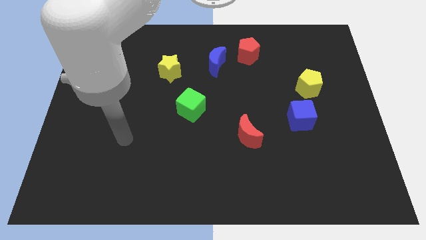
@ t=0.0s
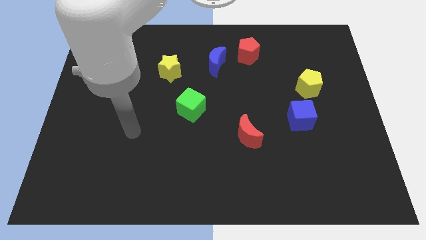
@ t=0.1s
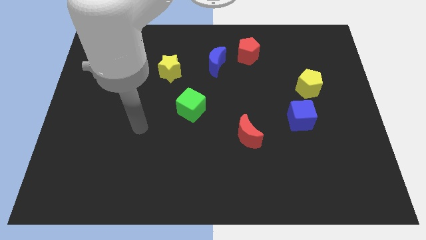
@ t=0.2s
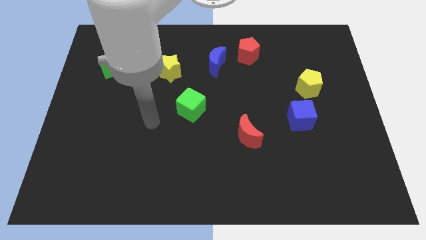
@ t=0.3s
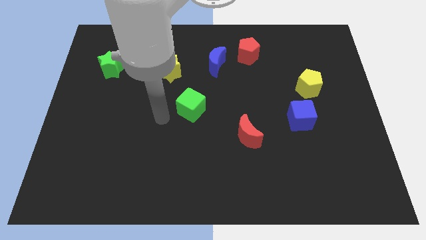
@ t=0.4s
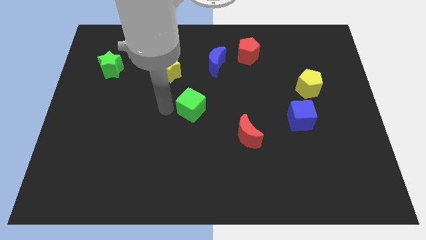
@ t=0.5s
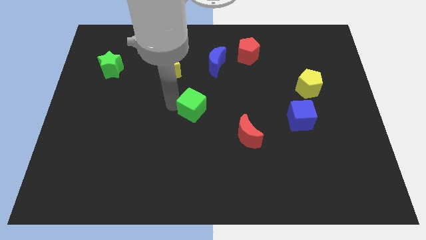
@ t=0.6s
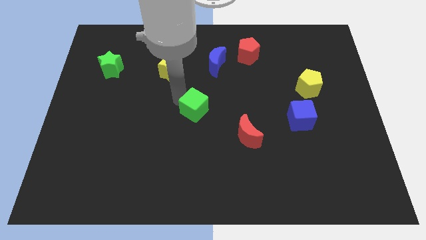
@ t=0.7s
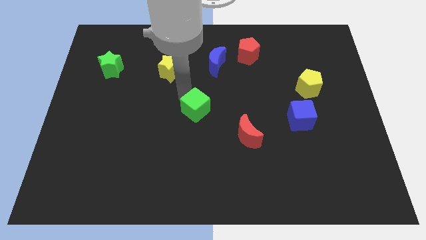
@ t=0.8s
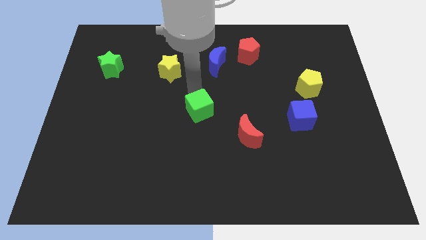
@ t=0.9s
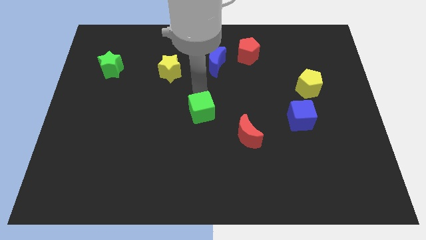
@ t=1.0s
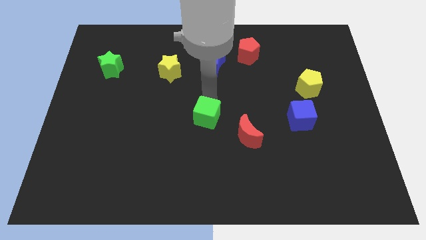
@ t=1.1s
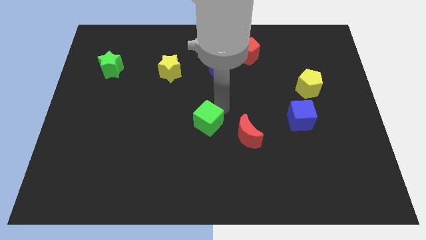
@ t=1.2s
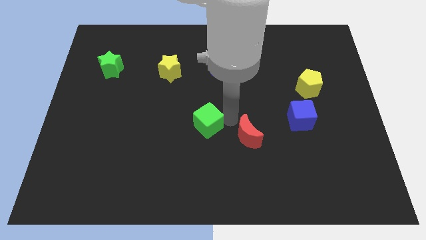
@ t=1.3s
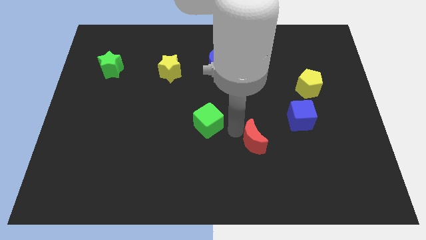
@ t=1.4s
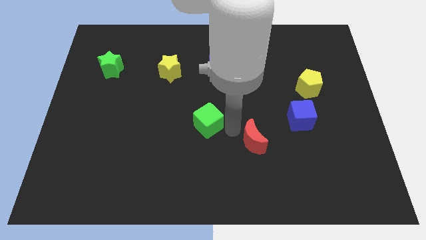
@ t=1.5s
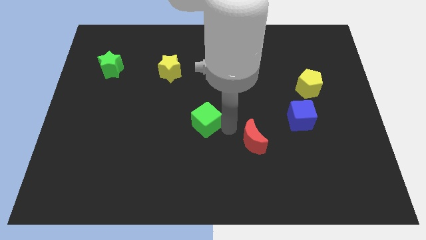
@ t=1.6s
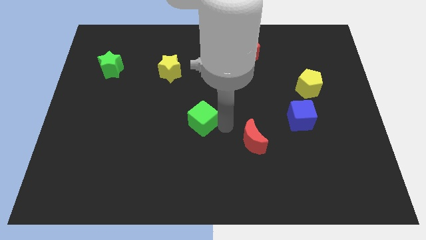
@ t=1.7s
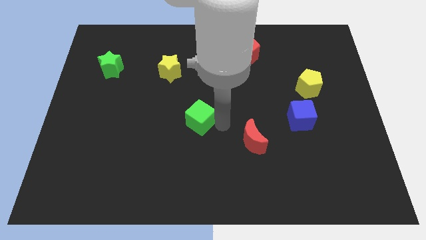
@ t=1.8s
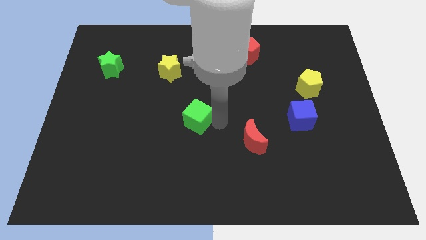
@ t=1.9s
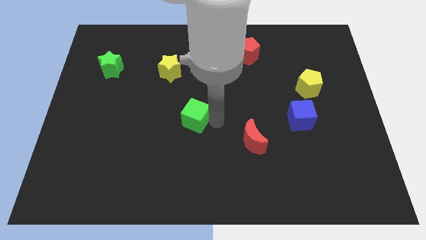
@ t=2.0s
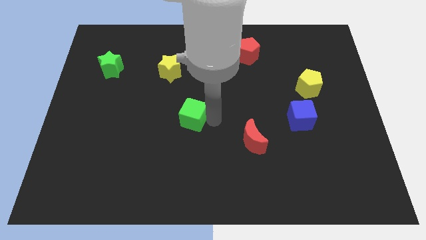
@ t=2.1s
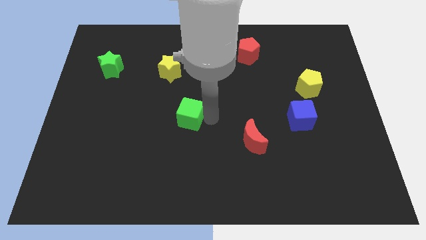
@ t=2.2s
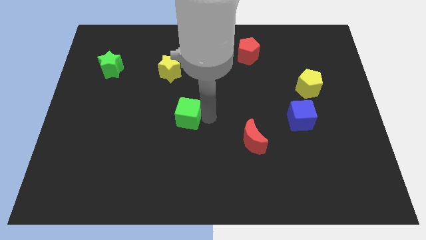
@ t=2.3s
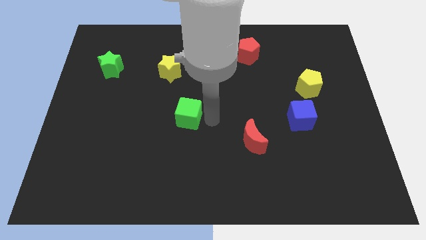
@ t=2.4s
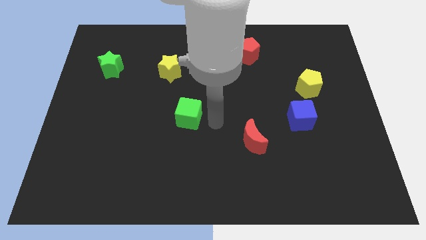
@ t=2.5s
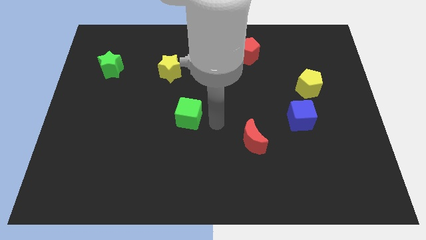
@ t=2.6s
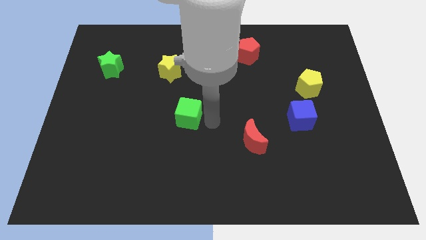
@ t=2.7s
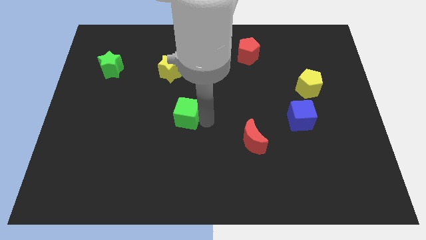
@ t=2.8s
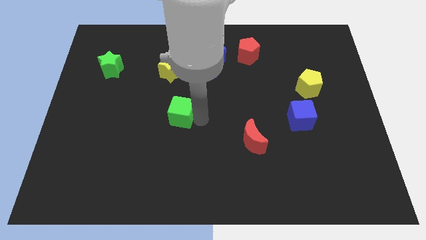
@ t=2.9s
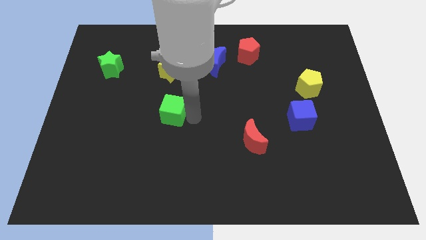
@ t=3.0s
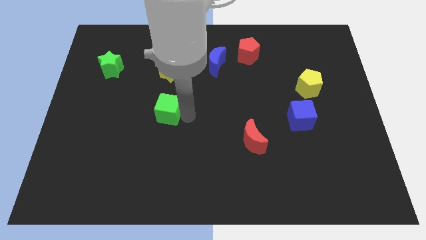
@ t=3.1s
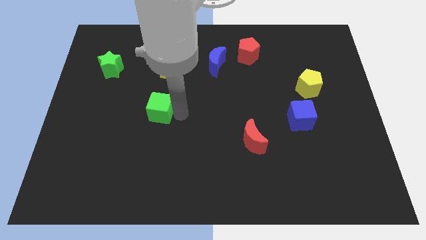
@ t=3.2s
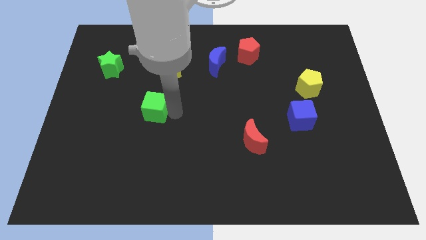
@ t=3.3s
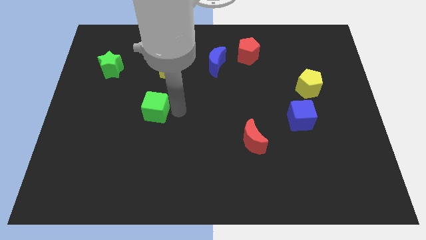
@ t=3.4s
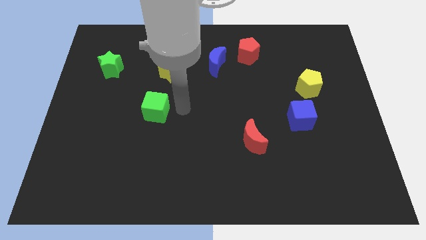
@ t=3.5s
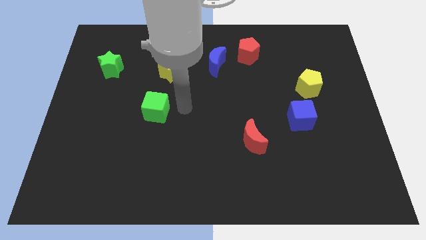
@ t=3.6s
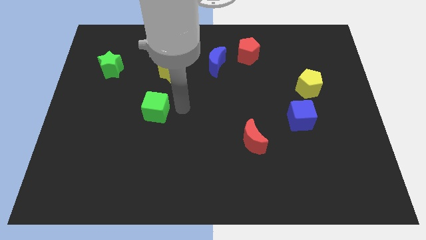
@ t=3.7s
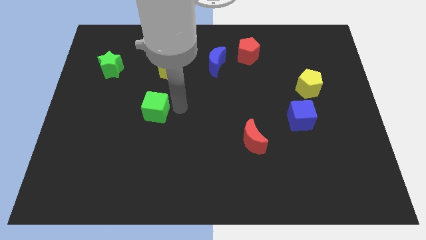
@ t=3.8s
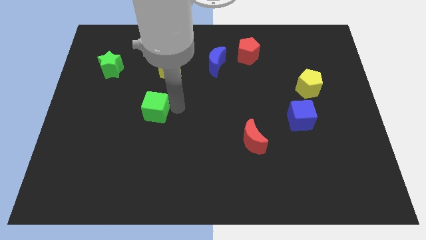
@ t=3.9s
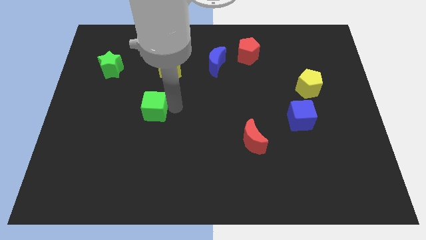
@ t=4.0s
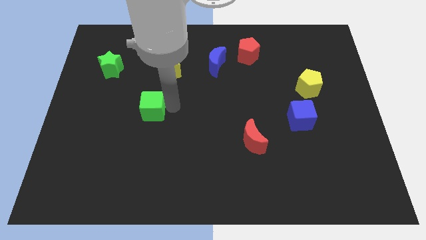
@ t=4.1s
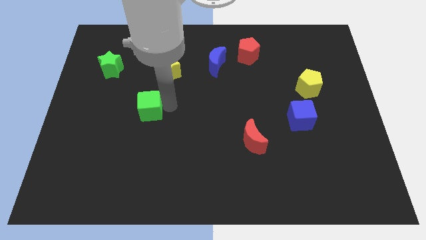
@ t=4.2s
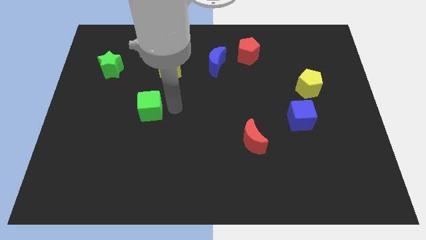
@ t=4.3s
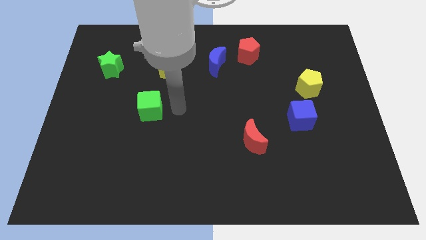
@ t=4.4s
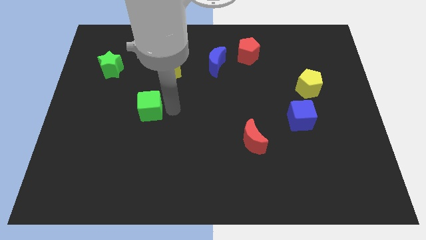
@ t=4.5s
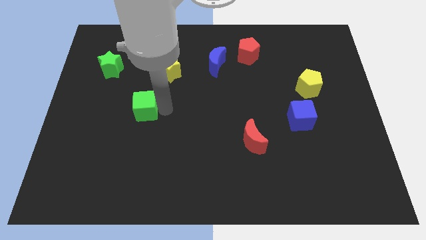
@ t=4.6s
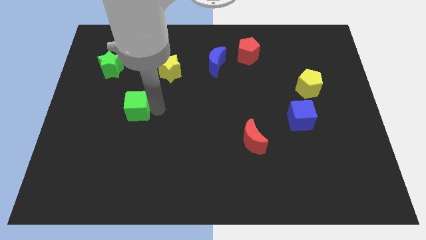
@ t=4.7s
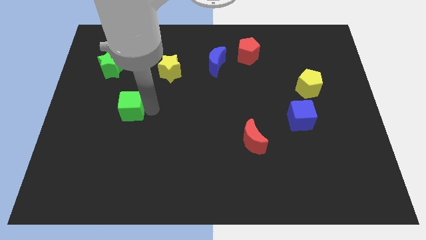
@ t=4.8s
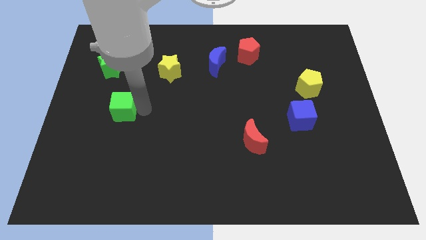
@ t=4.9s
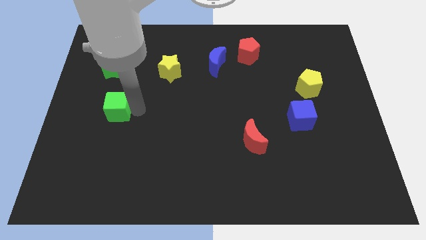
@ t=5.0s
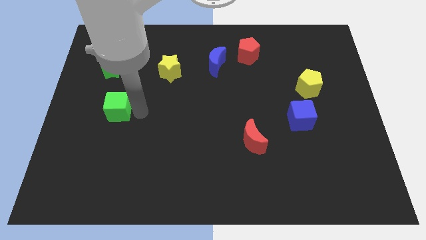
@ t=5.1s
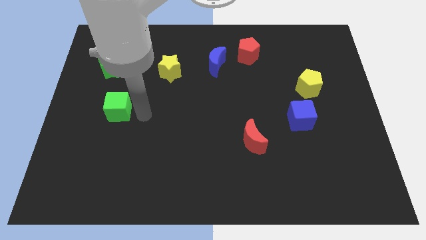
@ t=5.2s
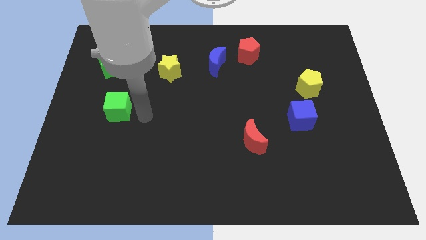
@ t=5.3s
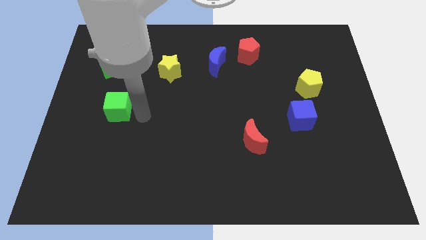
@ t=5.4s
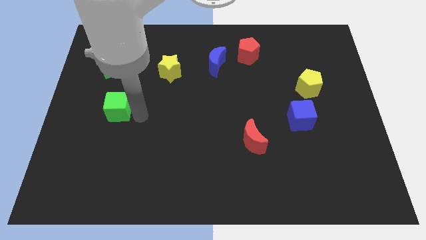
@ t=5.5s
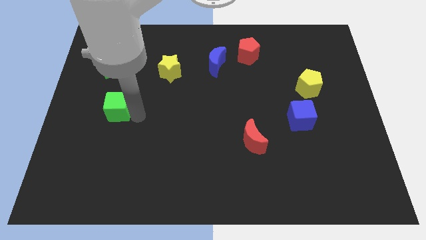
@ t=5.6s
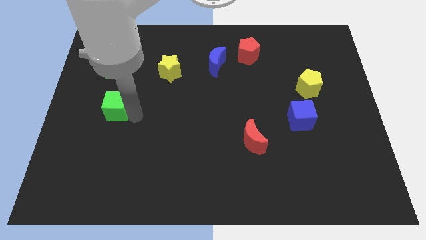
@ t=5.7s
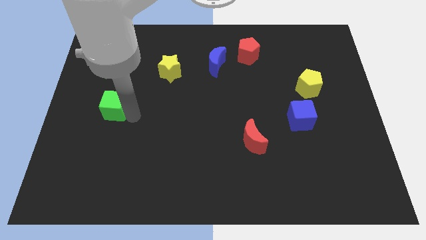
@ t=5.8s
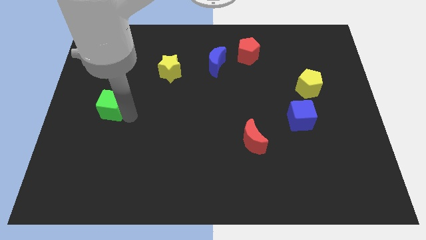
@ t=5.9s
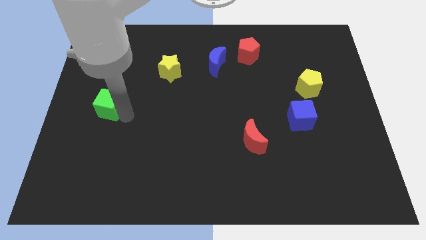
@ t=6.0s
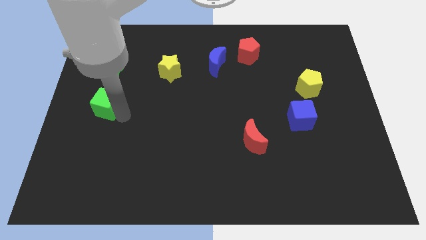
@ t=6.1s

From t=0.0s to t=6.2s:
put the green cube to the left side

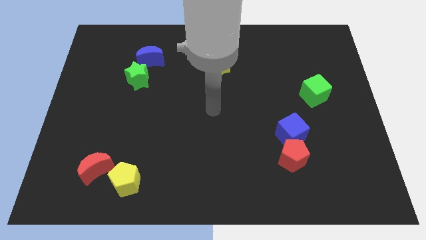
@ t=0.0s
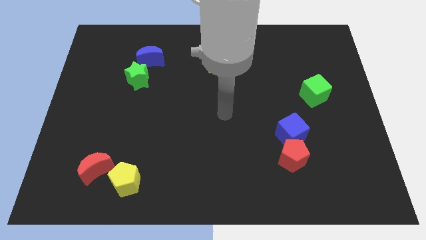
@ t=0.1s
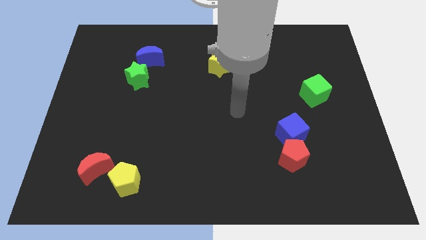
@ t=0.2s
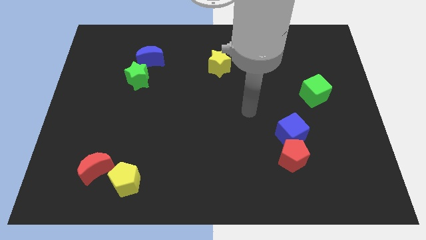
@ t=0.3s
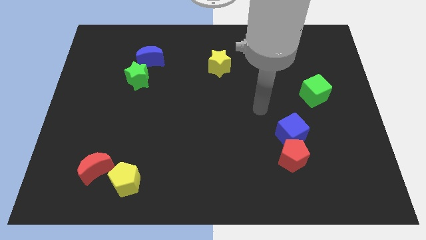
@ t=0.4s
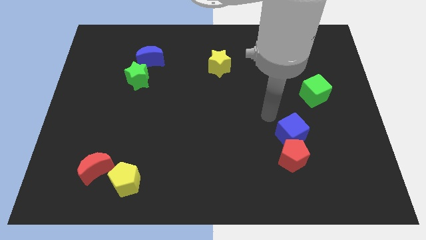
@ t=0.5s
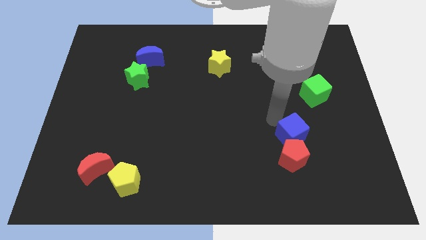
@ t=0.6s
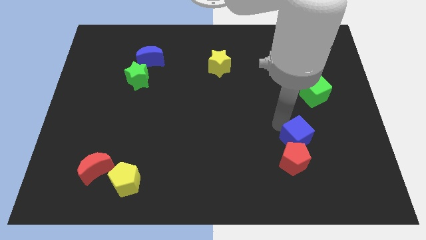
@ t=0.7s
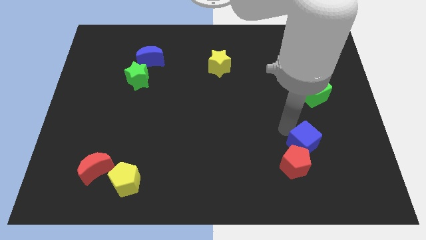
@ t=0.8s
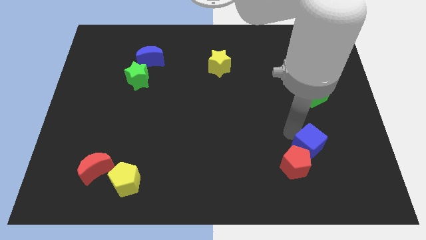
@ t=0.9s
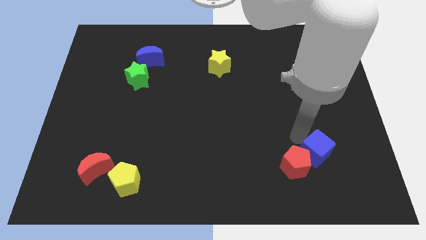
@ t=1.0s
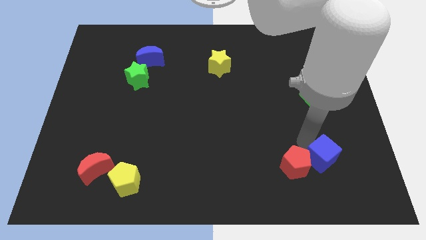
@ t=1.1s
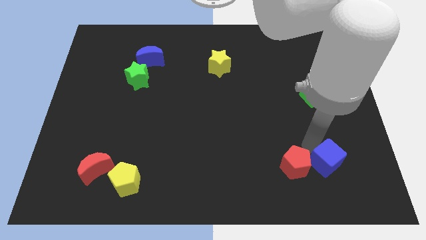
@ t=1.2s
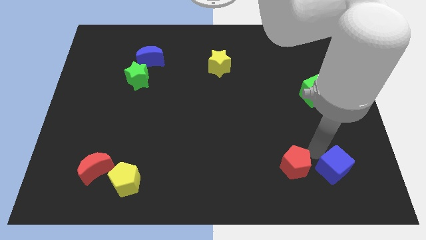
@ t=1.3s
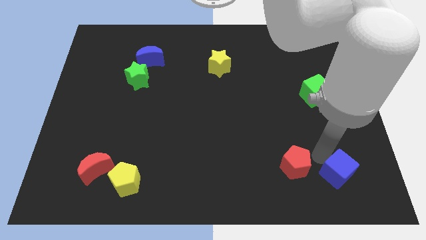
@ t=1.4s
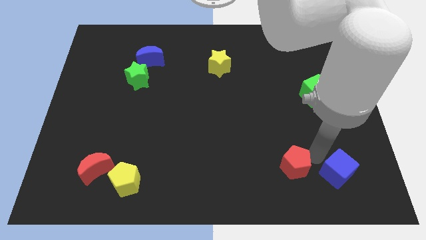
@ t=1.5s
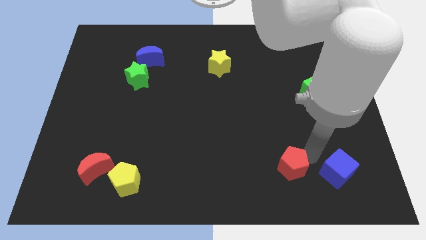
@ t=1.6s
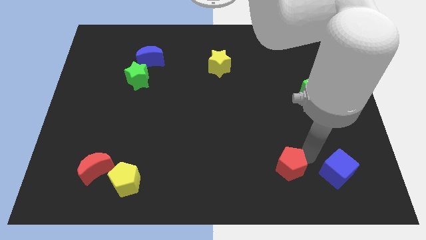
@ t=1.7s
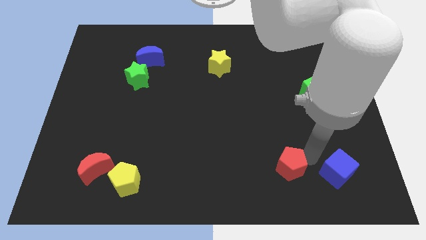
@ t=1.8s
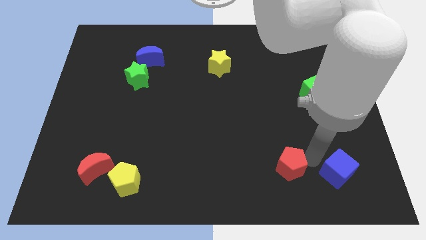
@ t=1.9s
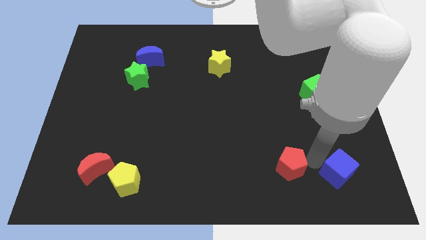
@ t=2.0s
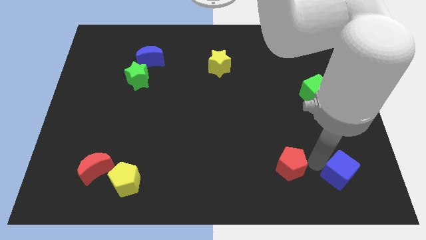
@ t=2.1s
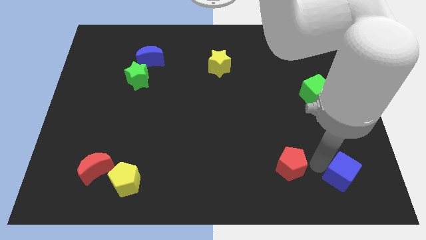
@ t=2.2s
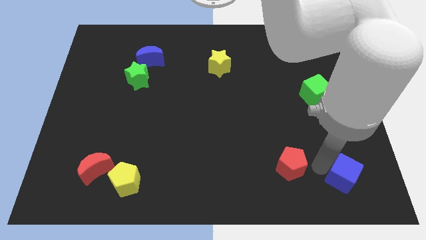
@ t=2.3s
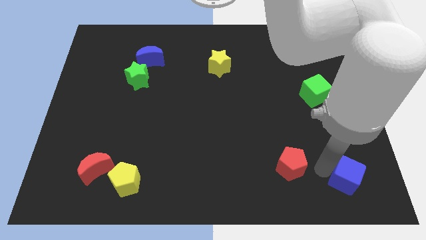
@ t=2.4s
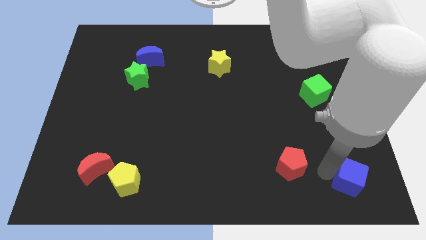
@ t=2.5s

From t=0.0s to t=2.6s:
slide the blue cube to the lower right corner
